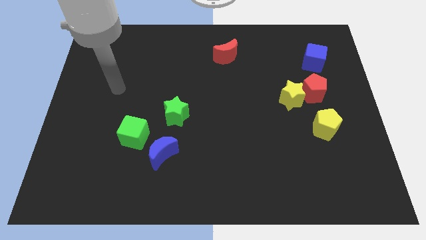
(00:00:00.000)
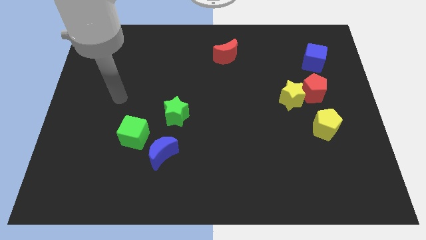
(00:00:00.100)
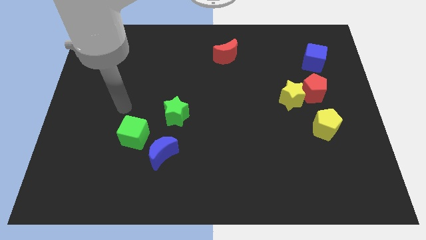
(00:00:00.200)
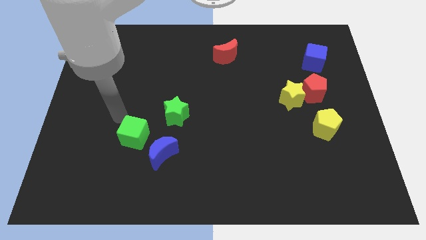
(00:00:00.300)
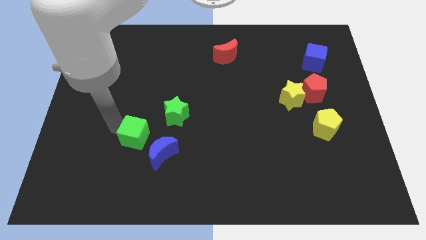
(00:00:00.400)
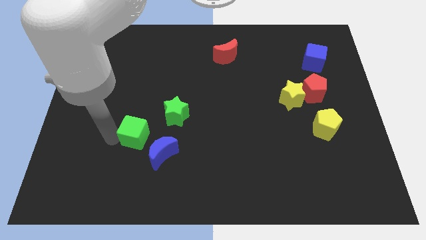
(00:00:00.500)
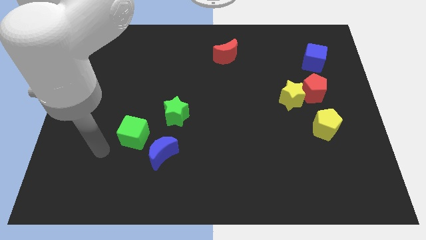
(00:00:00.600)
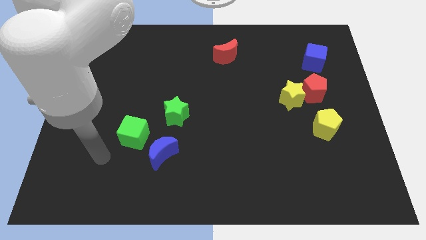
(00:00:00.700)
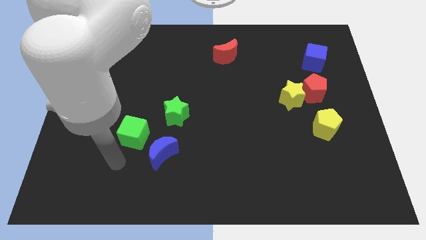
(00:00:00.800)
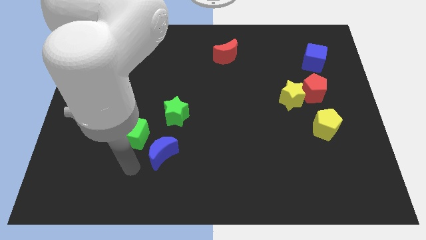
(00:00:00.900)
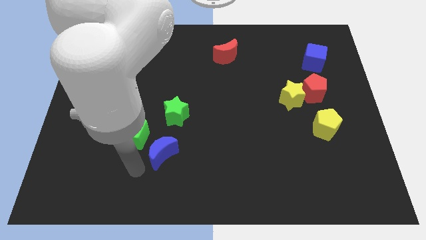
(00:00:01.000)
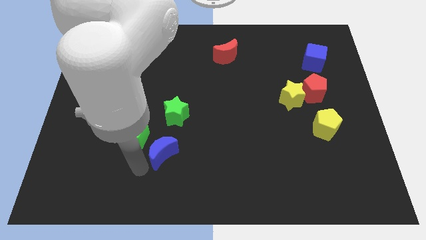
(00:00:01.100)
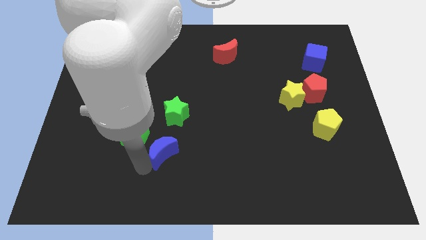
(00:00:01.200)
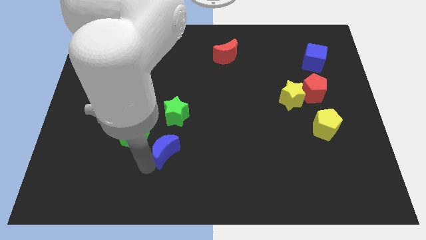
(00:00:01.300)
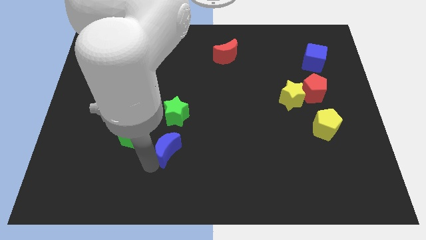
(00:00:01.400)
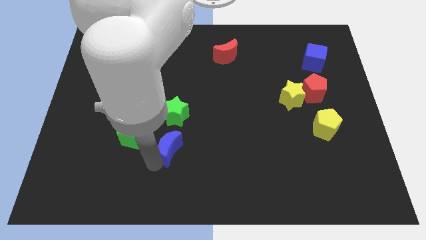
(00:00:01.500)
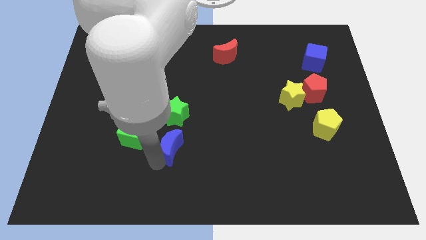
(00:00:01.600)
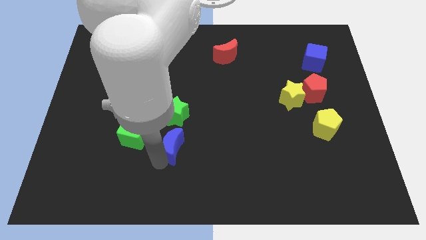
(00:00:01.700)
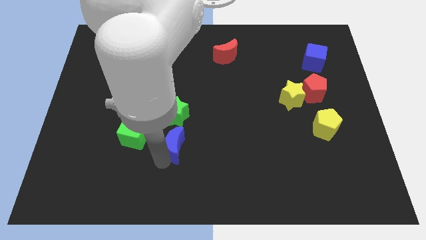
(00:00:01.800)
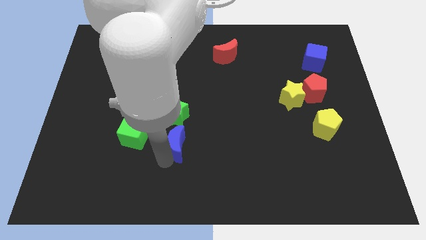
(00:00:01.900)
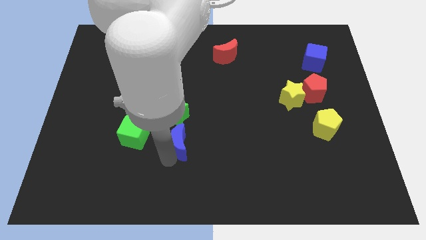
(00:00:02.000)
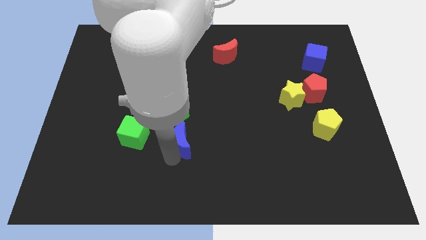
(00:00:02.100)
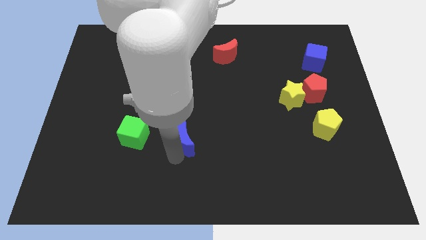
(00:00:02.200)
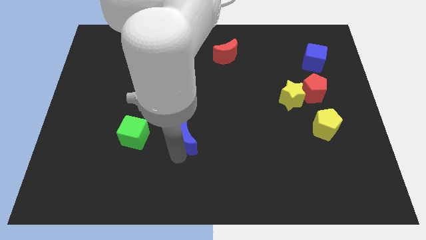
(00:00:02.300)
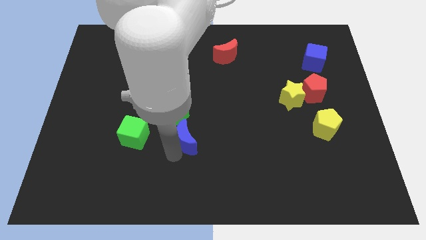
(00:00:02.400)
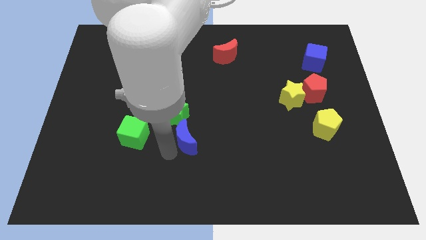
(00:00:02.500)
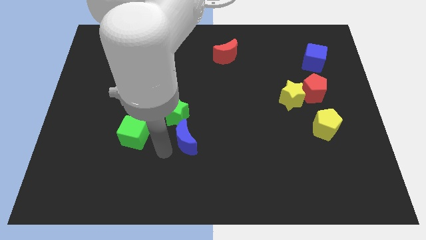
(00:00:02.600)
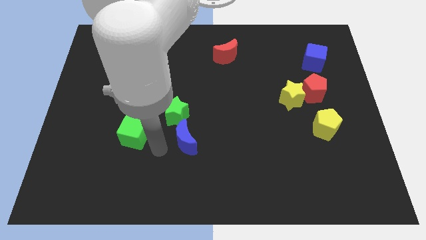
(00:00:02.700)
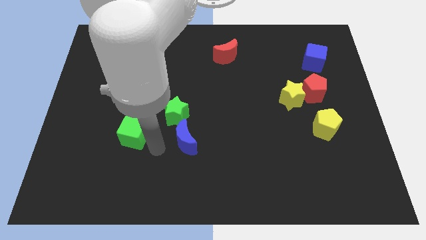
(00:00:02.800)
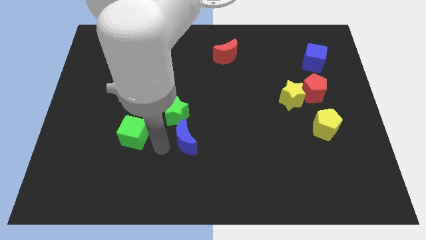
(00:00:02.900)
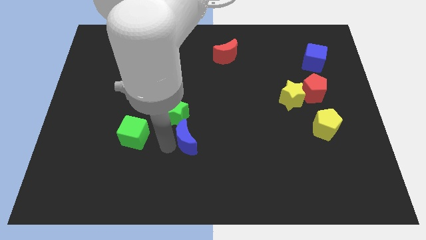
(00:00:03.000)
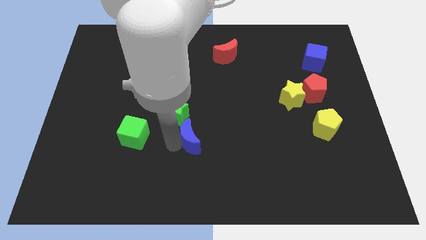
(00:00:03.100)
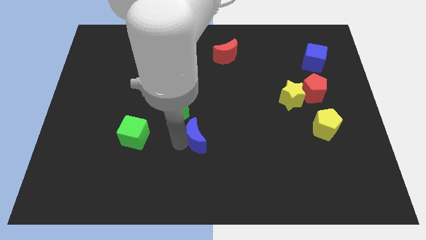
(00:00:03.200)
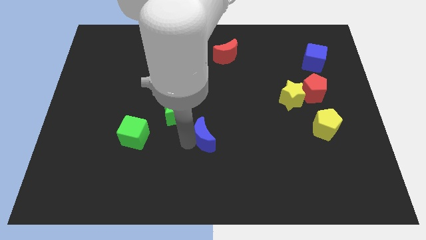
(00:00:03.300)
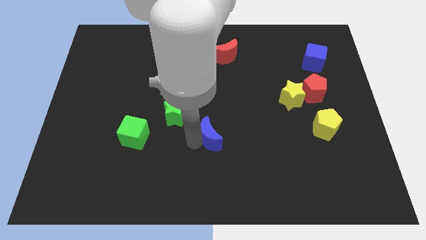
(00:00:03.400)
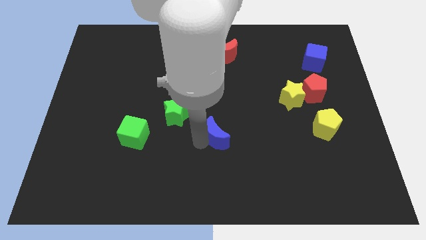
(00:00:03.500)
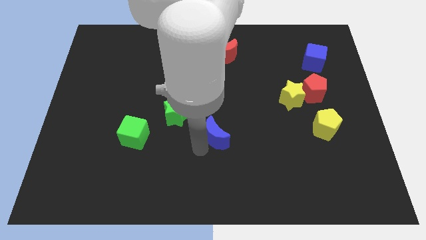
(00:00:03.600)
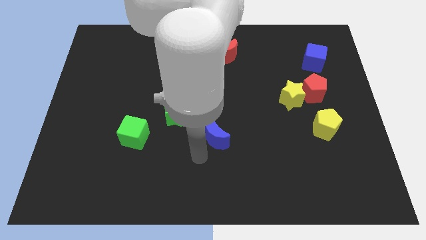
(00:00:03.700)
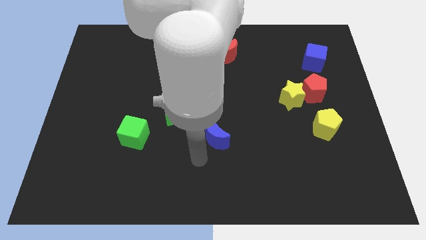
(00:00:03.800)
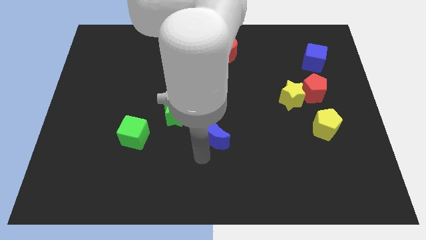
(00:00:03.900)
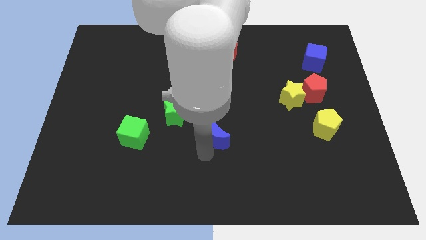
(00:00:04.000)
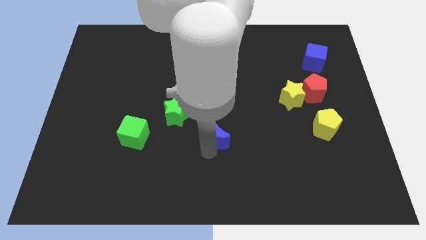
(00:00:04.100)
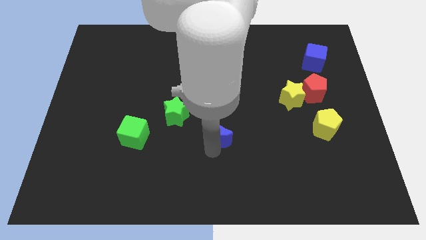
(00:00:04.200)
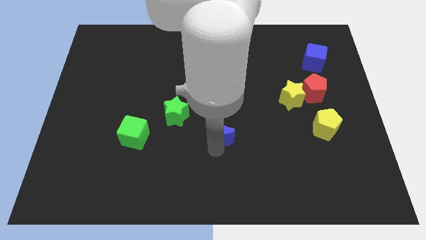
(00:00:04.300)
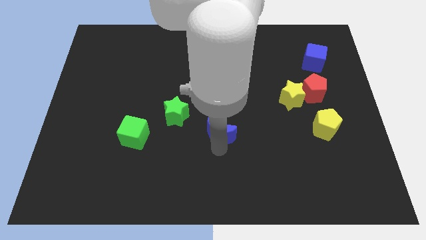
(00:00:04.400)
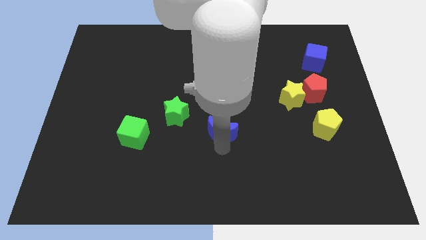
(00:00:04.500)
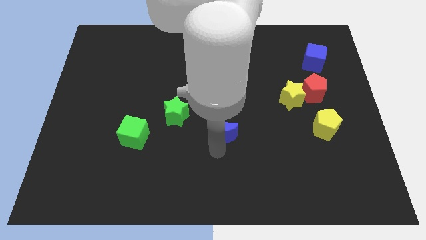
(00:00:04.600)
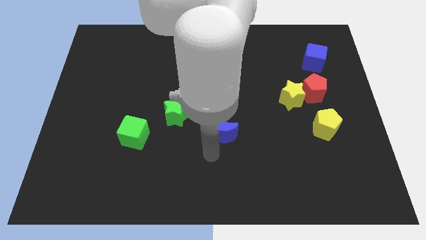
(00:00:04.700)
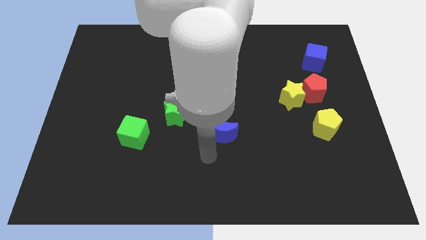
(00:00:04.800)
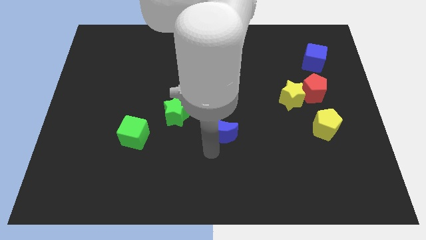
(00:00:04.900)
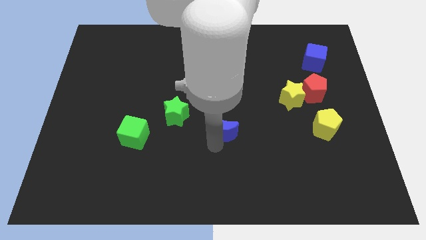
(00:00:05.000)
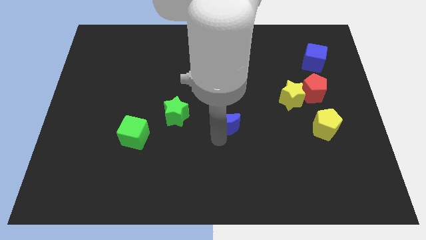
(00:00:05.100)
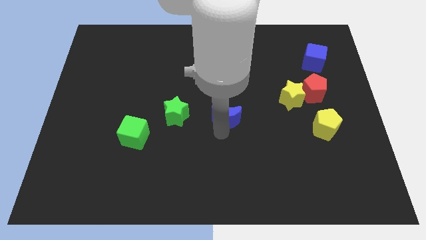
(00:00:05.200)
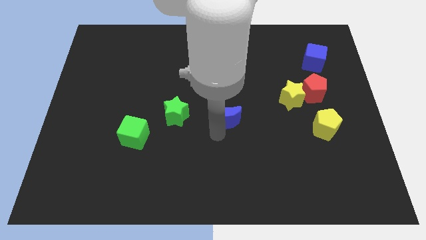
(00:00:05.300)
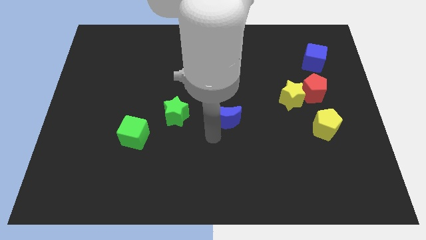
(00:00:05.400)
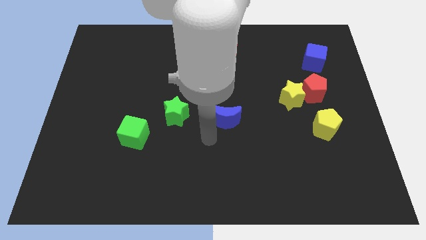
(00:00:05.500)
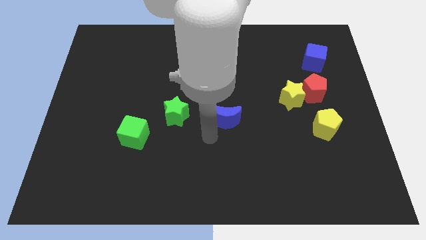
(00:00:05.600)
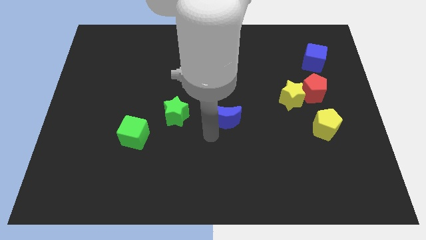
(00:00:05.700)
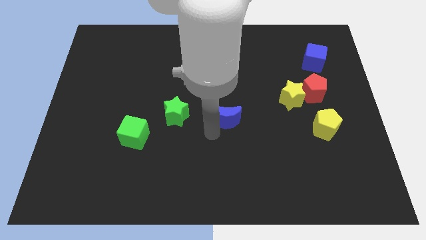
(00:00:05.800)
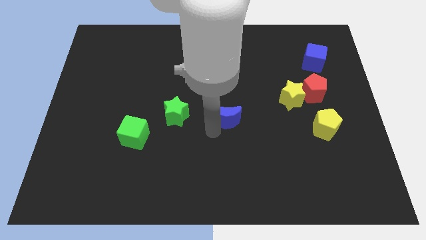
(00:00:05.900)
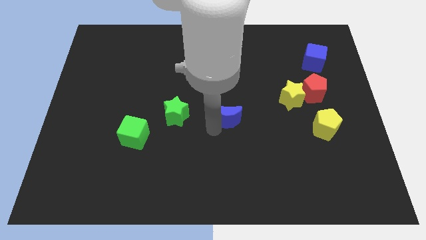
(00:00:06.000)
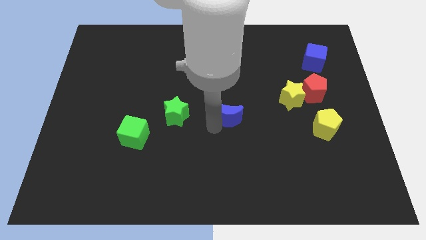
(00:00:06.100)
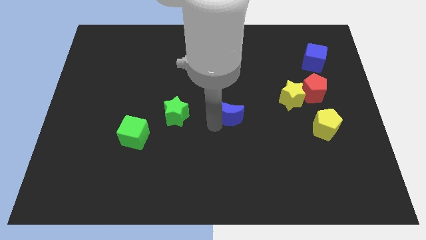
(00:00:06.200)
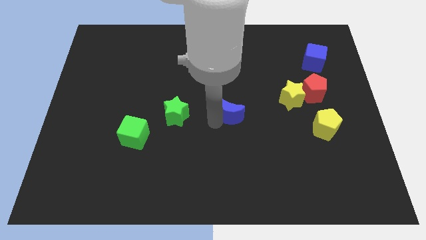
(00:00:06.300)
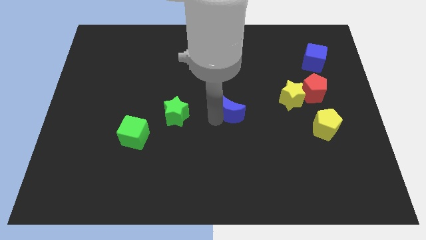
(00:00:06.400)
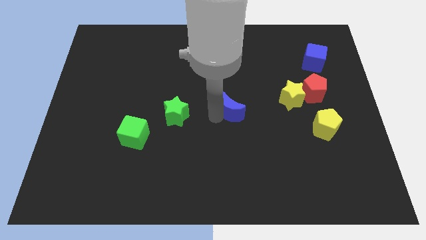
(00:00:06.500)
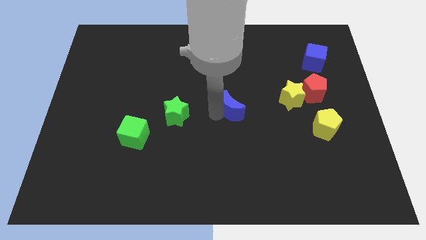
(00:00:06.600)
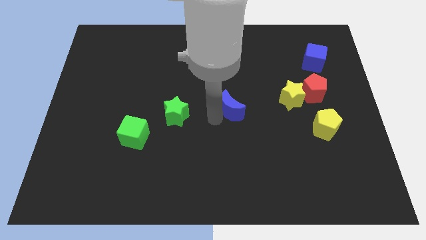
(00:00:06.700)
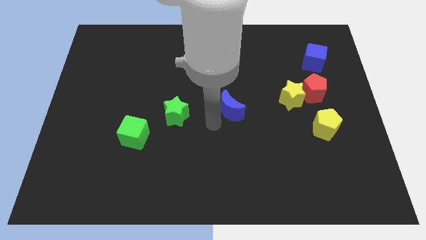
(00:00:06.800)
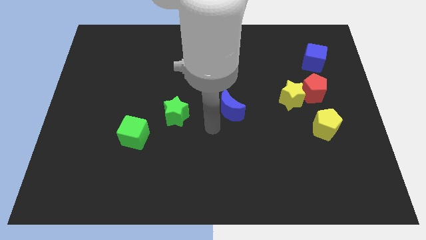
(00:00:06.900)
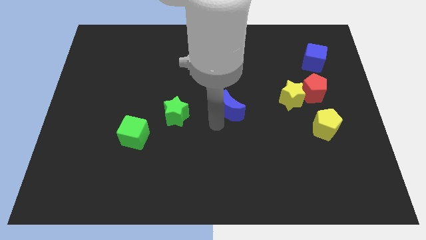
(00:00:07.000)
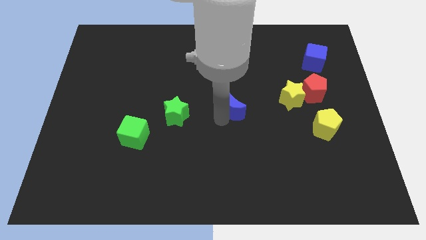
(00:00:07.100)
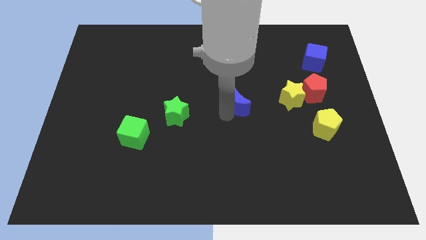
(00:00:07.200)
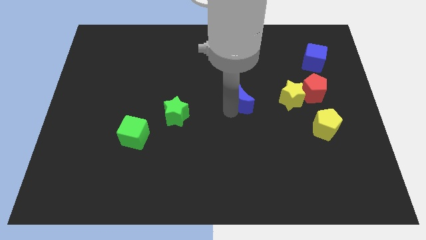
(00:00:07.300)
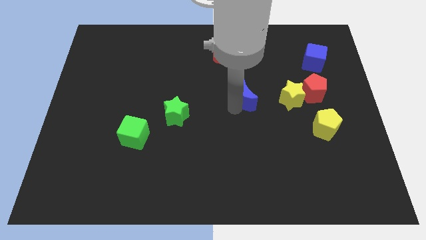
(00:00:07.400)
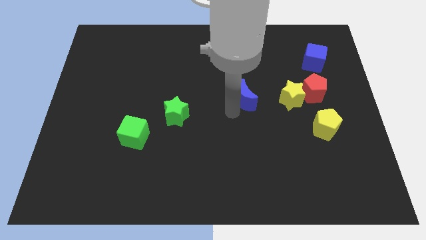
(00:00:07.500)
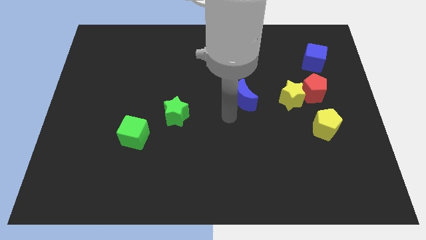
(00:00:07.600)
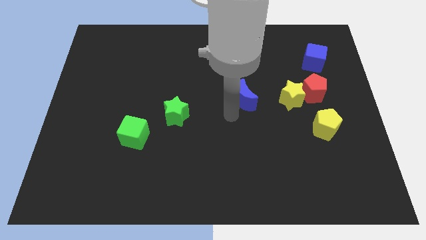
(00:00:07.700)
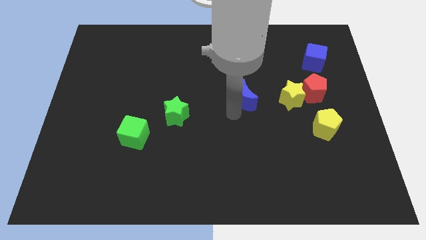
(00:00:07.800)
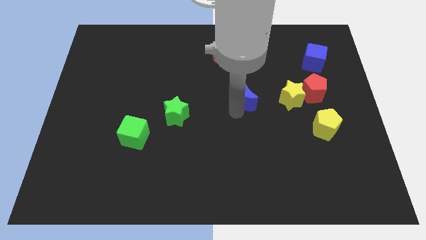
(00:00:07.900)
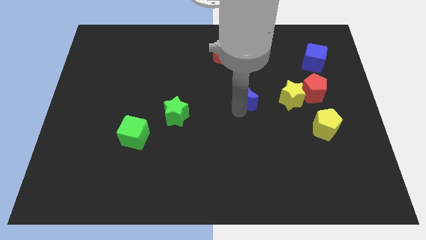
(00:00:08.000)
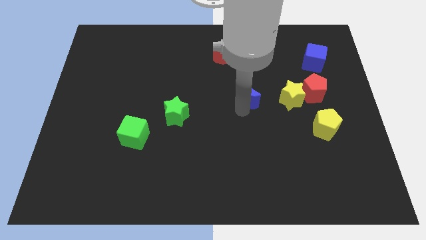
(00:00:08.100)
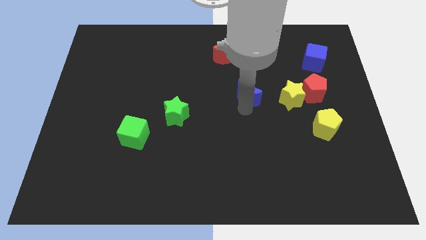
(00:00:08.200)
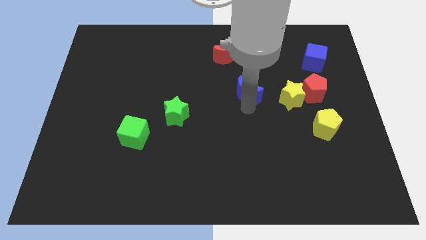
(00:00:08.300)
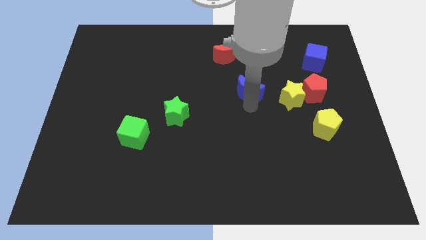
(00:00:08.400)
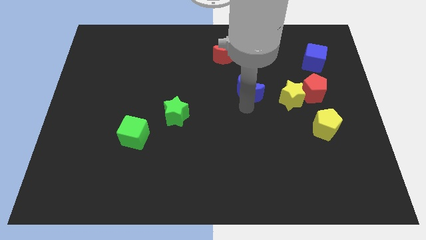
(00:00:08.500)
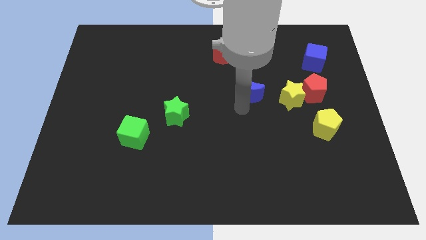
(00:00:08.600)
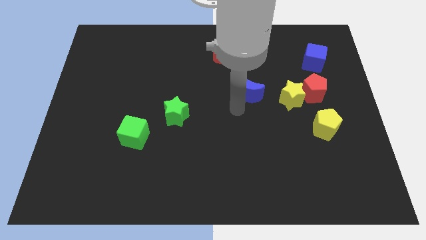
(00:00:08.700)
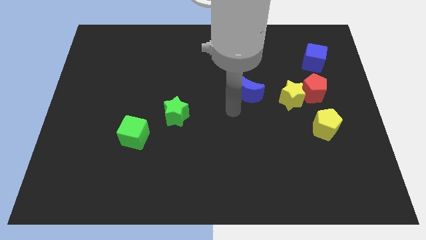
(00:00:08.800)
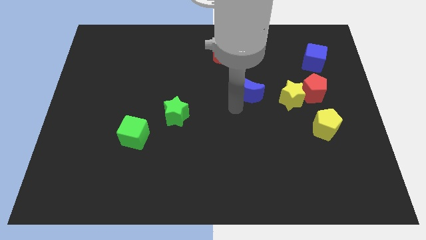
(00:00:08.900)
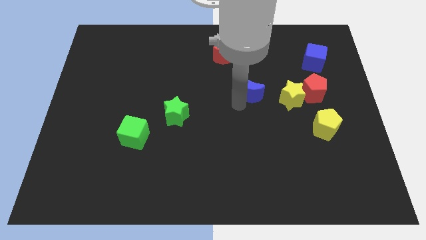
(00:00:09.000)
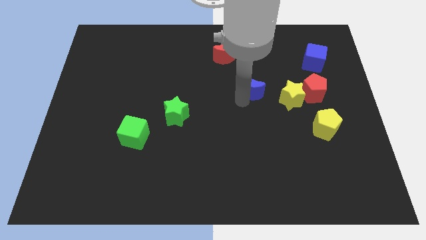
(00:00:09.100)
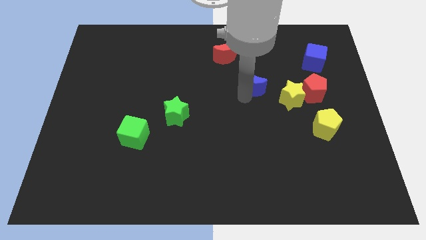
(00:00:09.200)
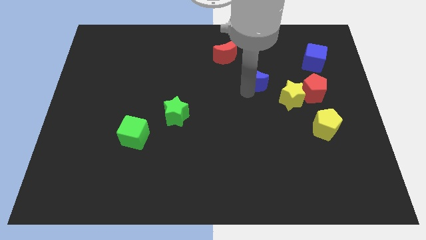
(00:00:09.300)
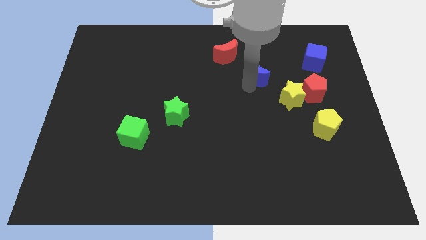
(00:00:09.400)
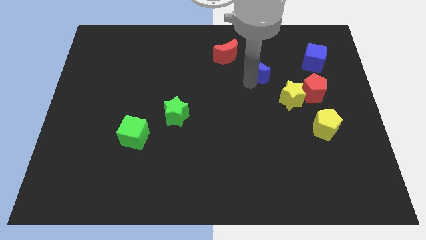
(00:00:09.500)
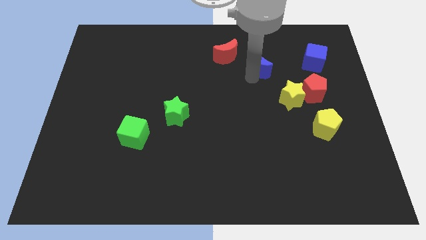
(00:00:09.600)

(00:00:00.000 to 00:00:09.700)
push the blue moon to the left of the blue cube
